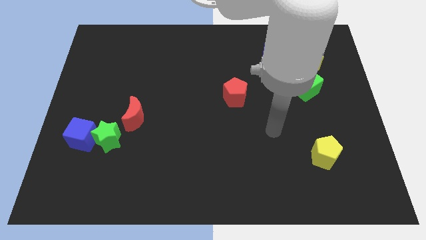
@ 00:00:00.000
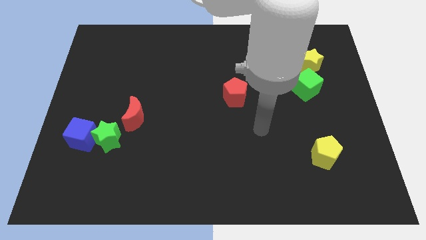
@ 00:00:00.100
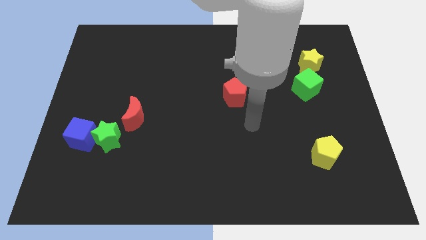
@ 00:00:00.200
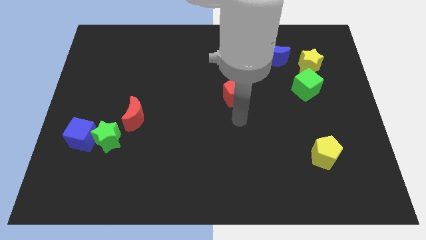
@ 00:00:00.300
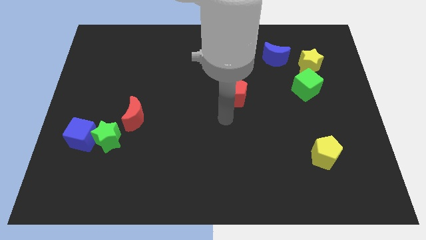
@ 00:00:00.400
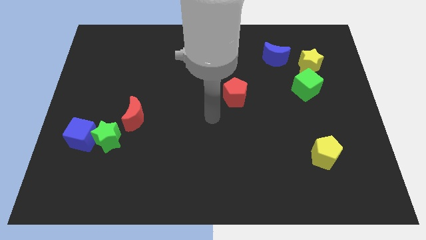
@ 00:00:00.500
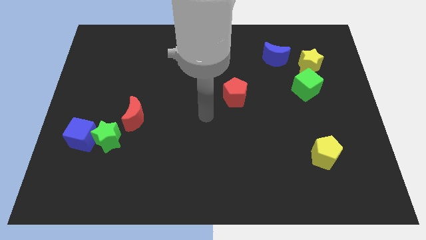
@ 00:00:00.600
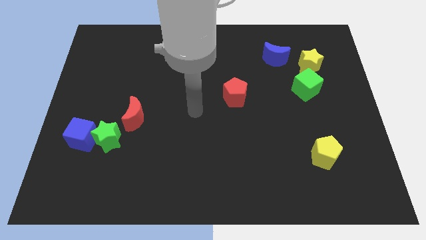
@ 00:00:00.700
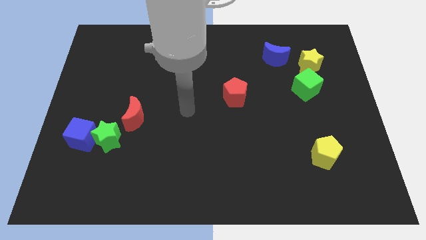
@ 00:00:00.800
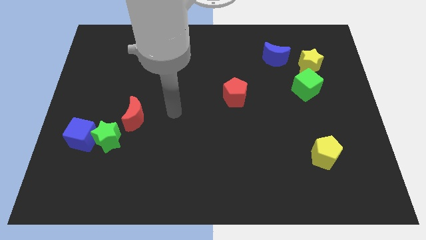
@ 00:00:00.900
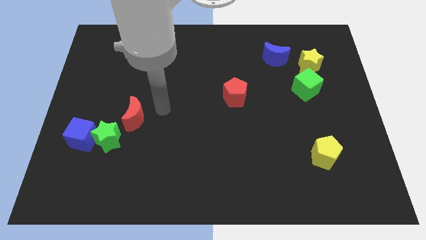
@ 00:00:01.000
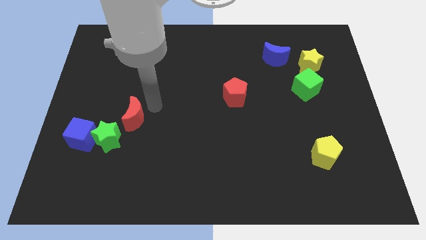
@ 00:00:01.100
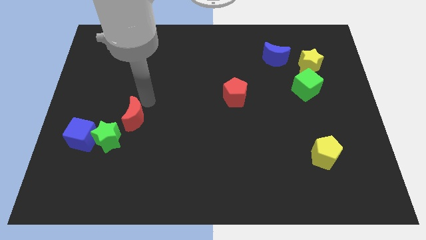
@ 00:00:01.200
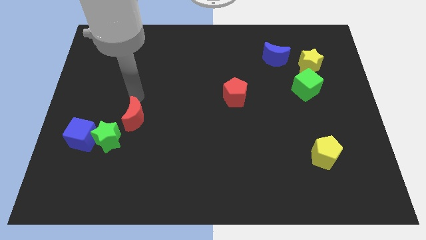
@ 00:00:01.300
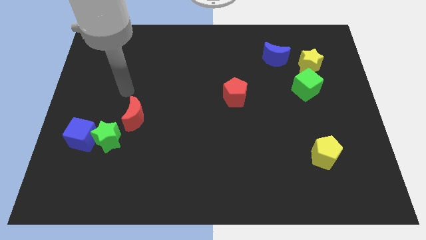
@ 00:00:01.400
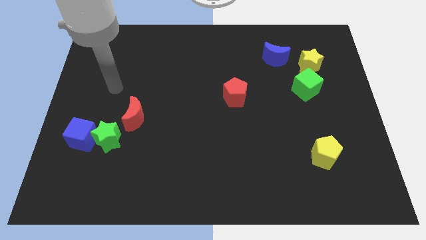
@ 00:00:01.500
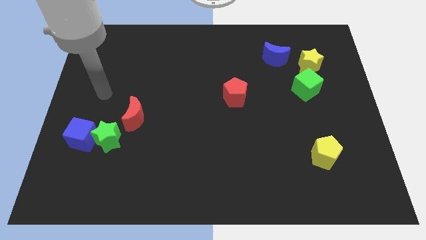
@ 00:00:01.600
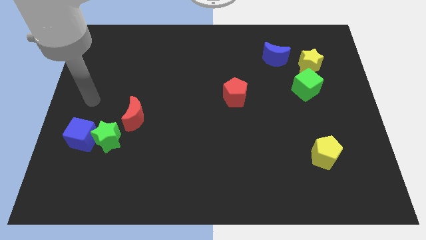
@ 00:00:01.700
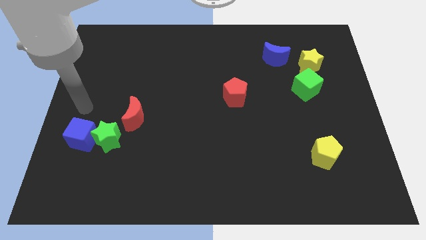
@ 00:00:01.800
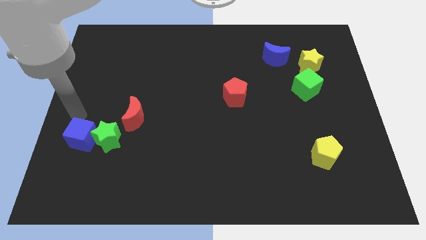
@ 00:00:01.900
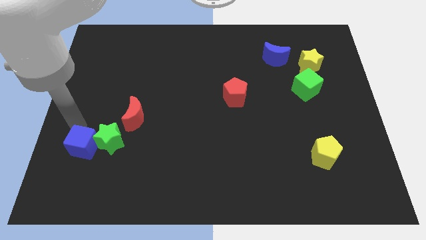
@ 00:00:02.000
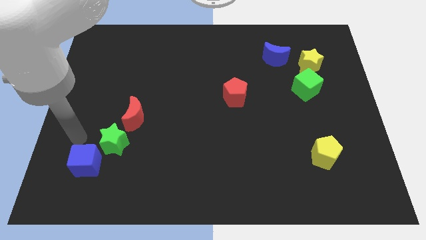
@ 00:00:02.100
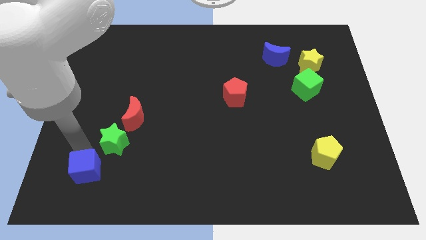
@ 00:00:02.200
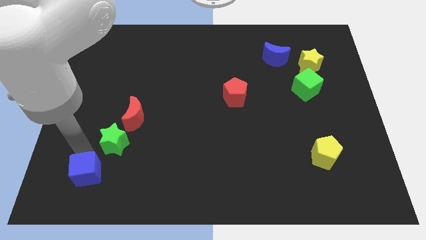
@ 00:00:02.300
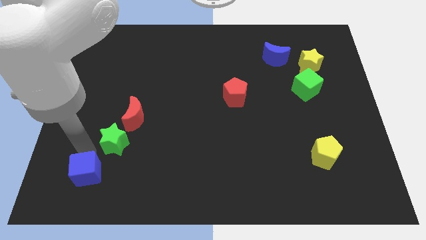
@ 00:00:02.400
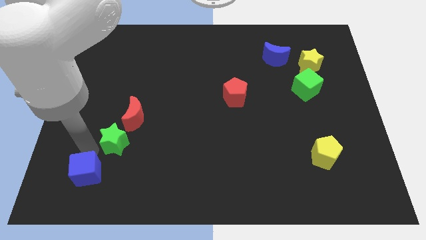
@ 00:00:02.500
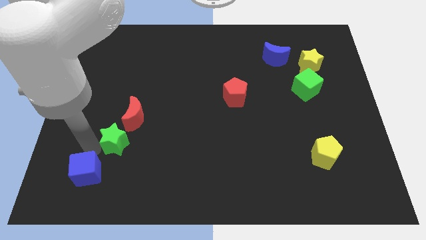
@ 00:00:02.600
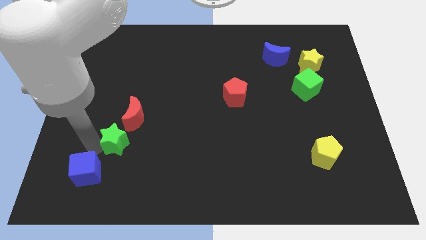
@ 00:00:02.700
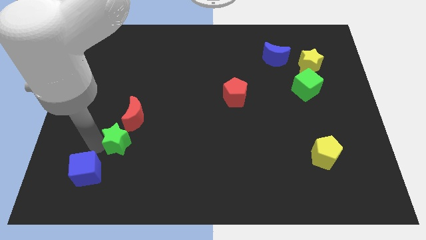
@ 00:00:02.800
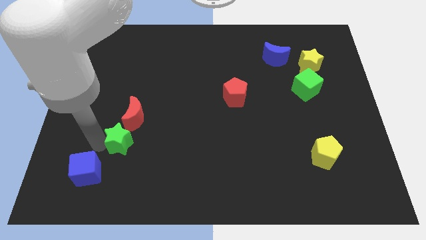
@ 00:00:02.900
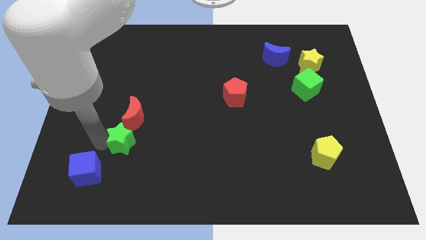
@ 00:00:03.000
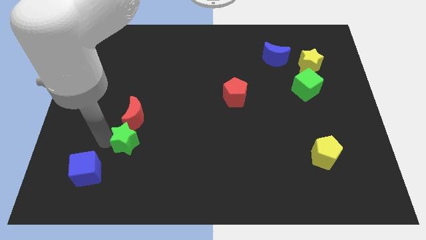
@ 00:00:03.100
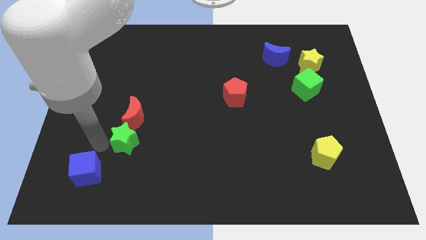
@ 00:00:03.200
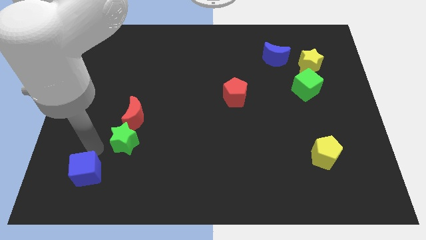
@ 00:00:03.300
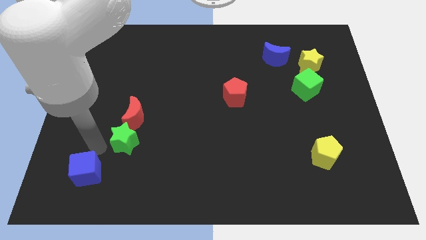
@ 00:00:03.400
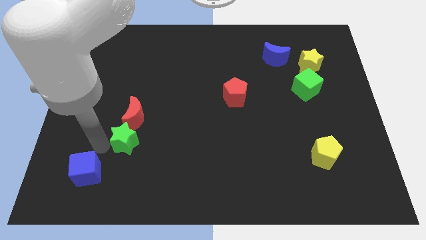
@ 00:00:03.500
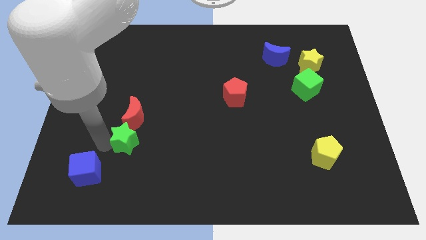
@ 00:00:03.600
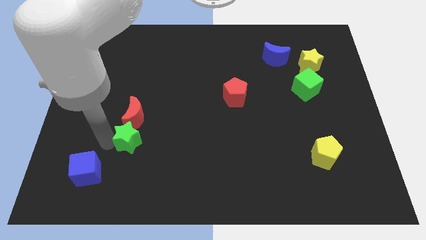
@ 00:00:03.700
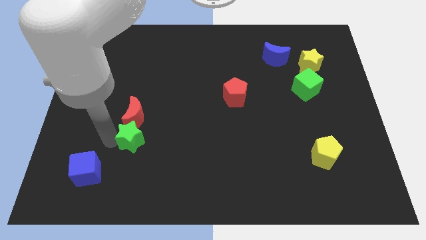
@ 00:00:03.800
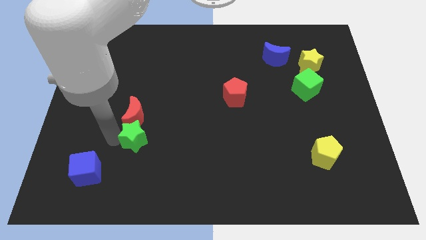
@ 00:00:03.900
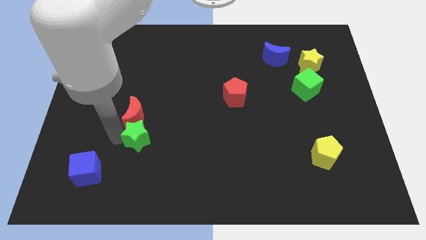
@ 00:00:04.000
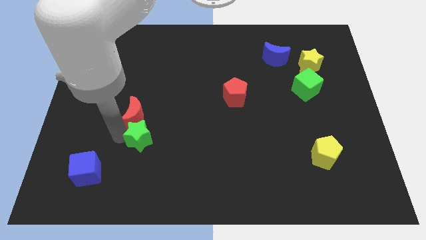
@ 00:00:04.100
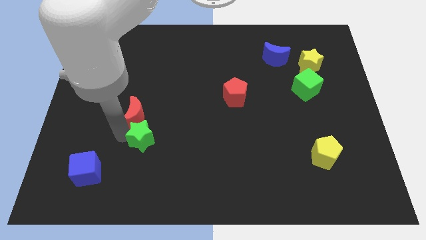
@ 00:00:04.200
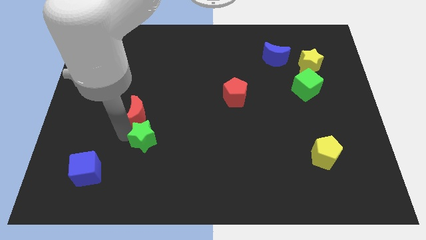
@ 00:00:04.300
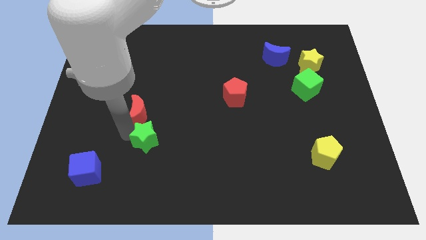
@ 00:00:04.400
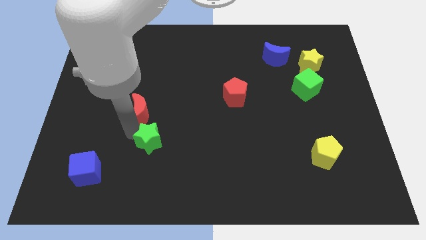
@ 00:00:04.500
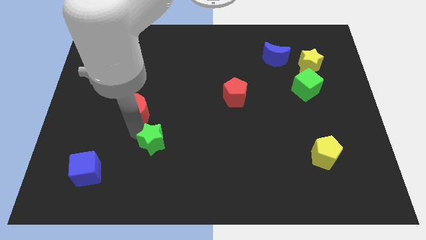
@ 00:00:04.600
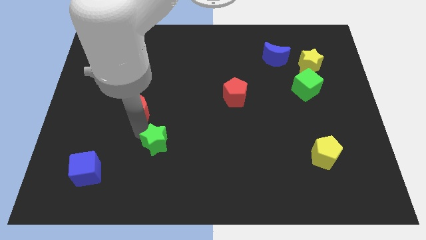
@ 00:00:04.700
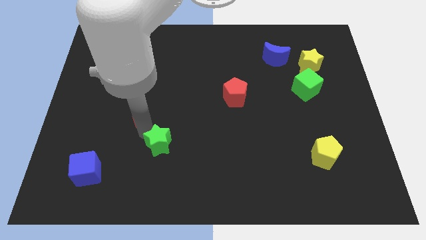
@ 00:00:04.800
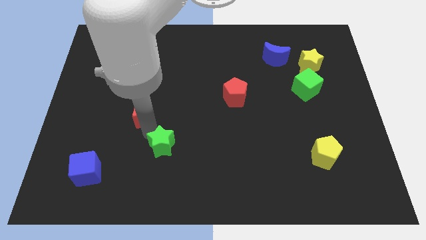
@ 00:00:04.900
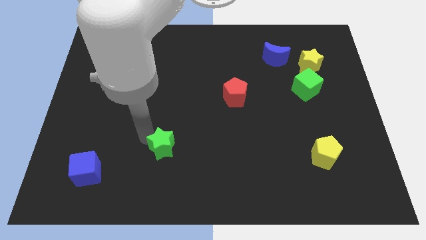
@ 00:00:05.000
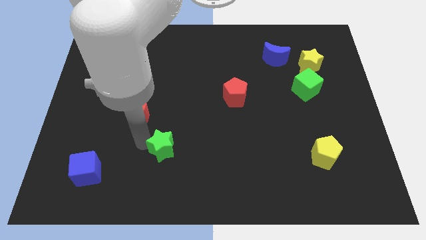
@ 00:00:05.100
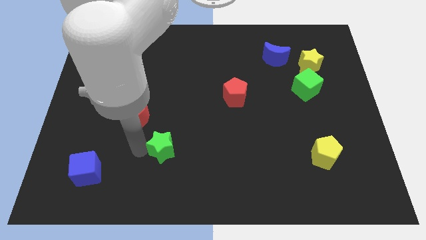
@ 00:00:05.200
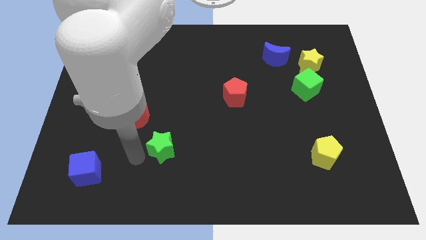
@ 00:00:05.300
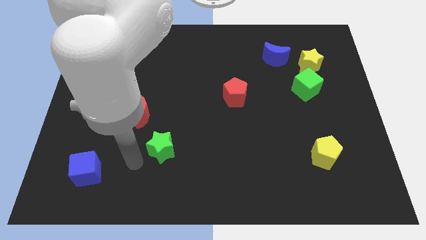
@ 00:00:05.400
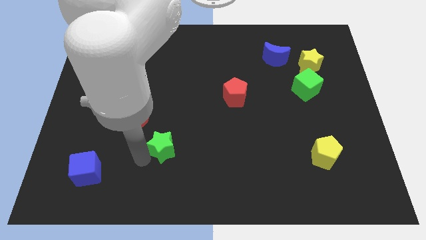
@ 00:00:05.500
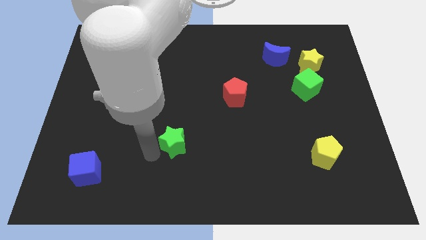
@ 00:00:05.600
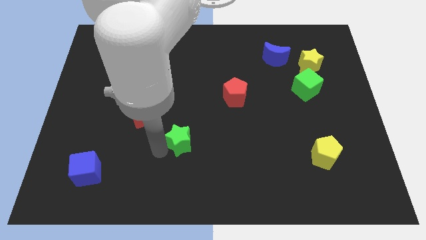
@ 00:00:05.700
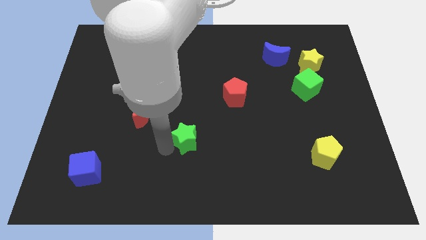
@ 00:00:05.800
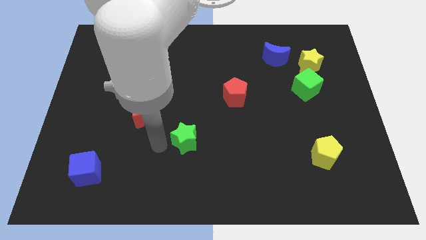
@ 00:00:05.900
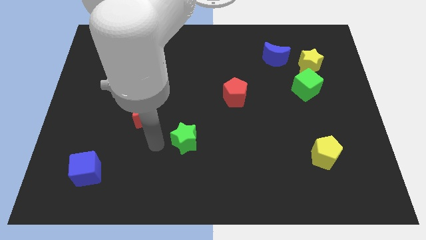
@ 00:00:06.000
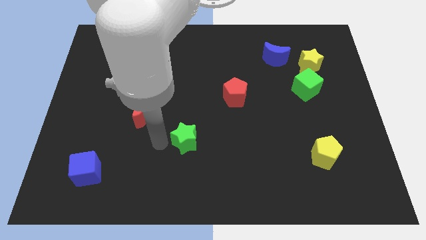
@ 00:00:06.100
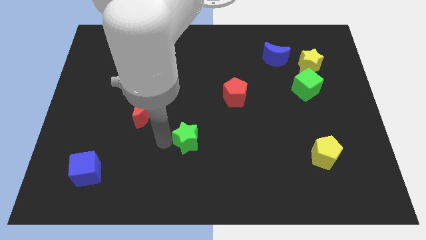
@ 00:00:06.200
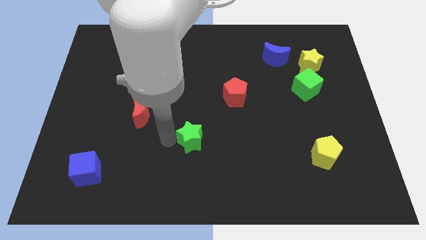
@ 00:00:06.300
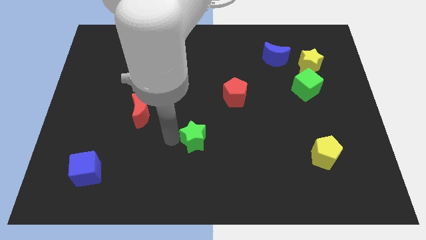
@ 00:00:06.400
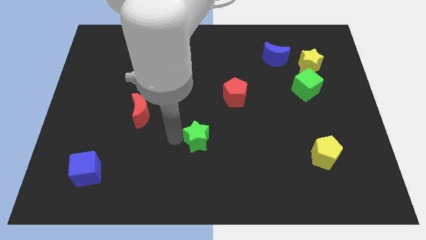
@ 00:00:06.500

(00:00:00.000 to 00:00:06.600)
slide the green star to the right

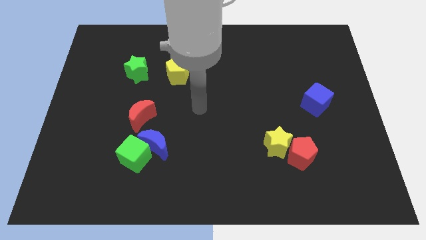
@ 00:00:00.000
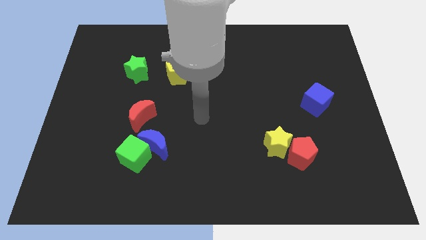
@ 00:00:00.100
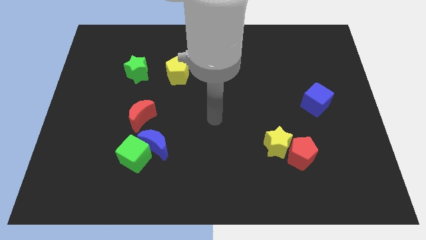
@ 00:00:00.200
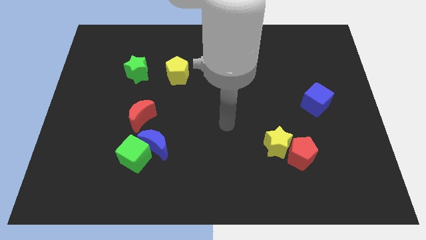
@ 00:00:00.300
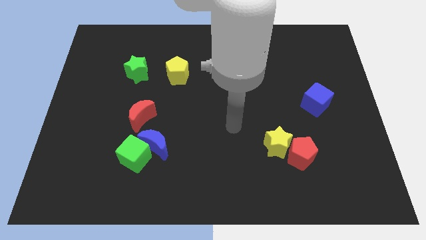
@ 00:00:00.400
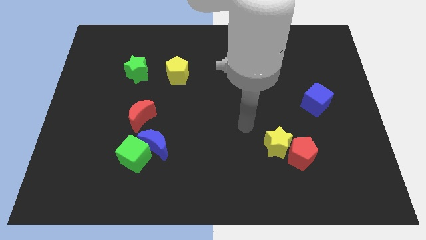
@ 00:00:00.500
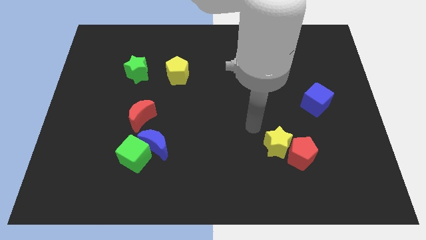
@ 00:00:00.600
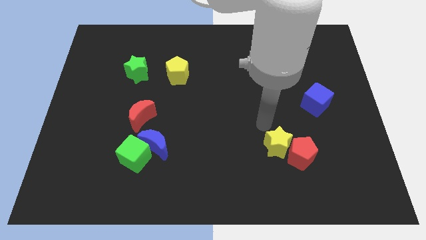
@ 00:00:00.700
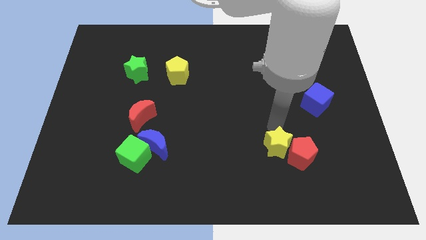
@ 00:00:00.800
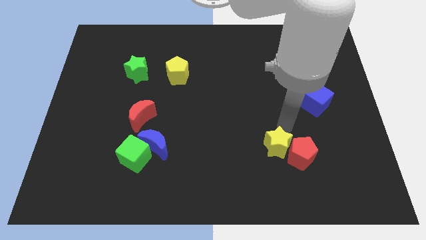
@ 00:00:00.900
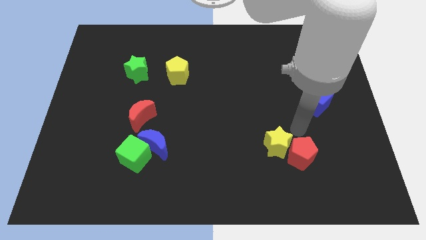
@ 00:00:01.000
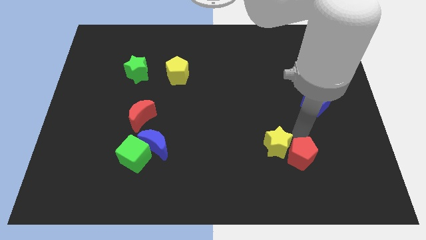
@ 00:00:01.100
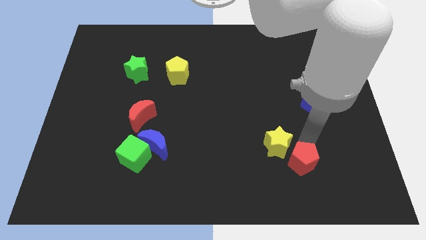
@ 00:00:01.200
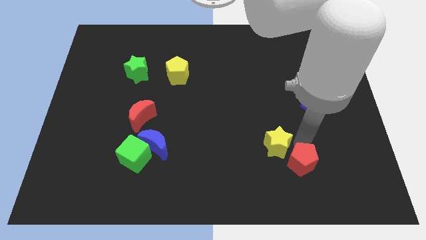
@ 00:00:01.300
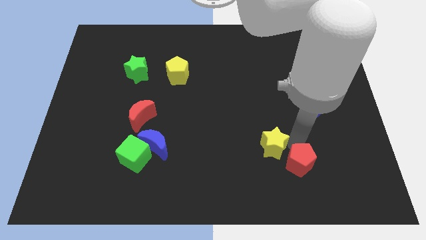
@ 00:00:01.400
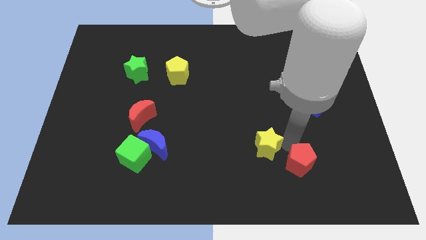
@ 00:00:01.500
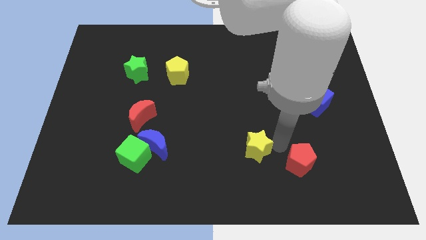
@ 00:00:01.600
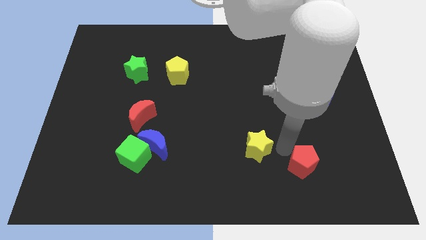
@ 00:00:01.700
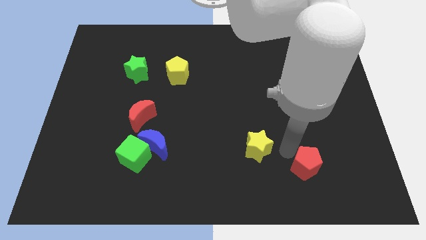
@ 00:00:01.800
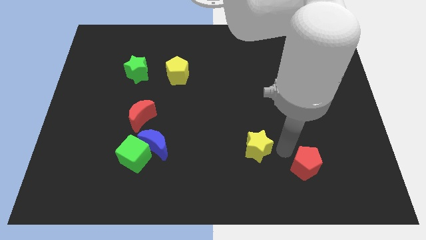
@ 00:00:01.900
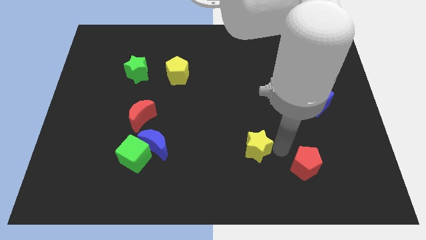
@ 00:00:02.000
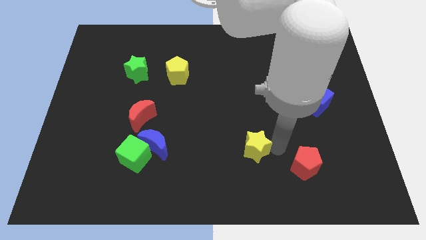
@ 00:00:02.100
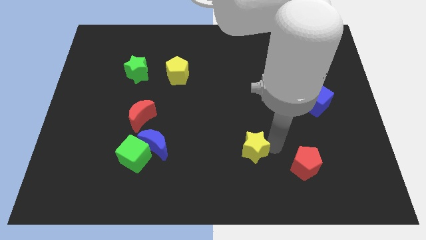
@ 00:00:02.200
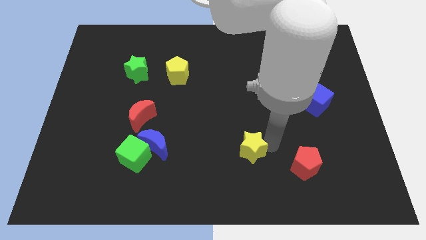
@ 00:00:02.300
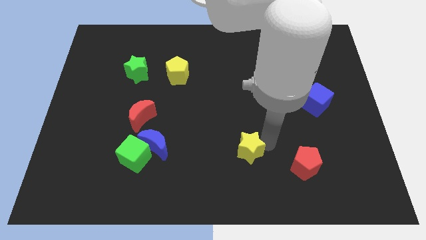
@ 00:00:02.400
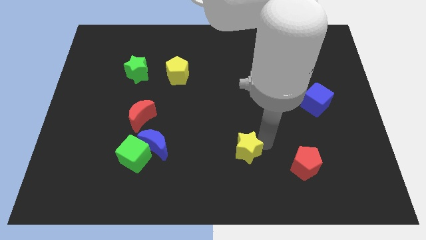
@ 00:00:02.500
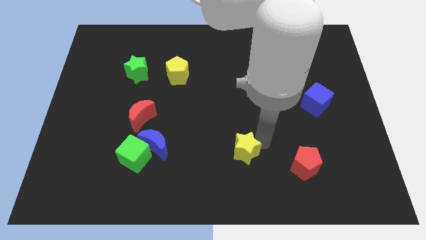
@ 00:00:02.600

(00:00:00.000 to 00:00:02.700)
slightly slide the yellow star left
